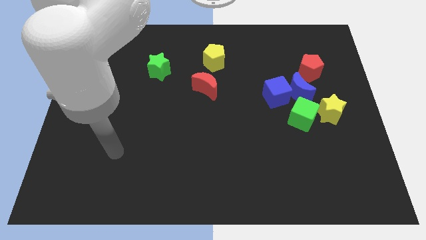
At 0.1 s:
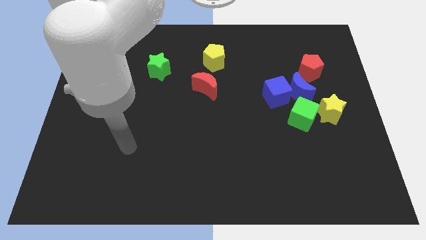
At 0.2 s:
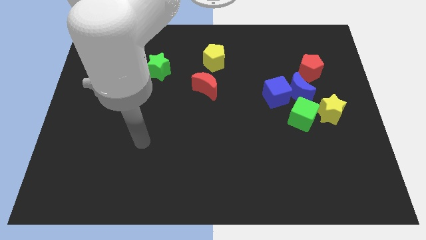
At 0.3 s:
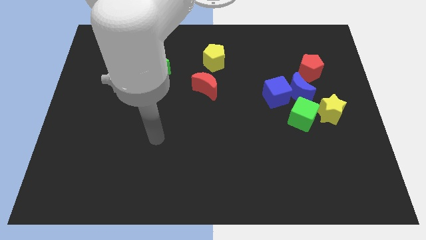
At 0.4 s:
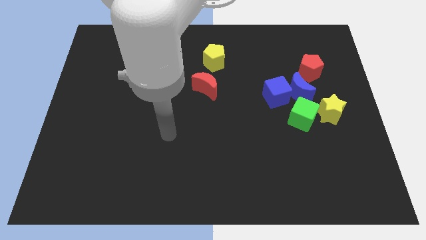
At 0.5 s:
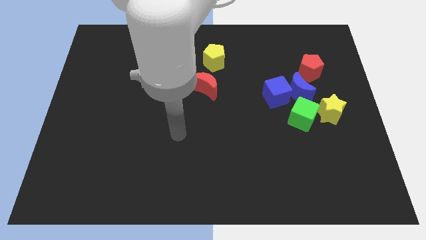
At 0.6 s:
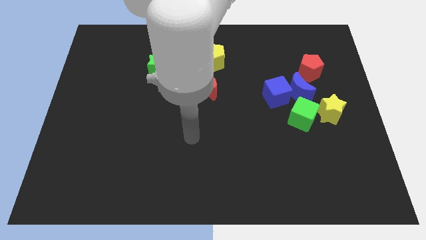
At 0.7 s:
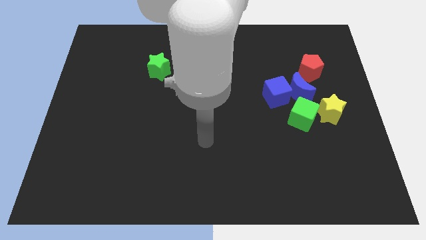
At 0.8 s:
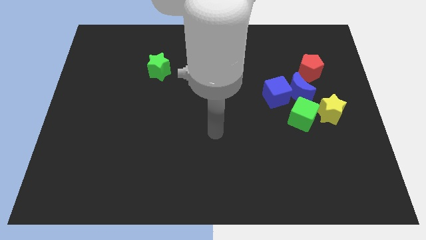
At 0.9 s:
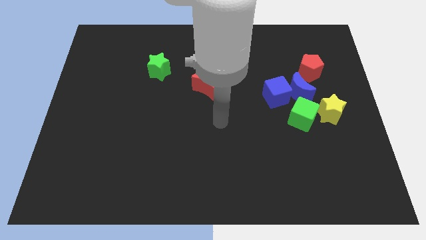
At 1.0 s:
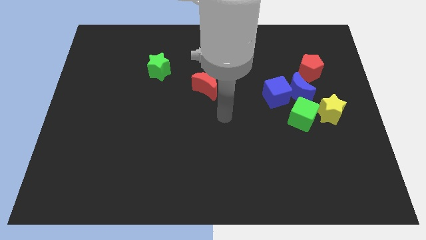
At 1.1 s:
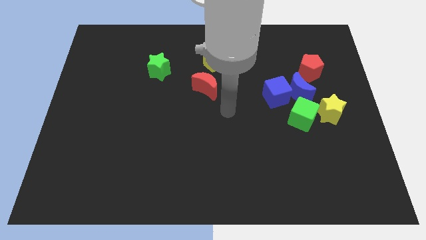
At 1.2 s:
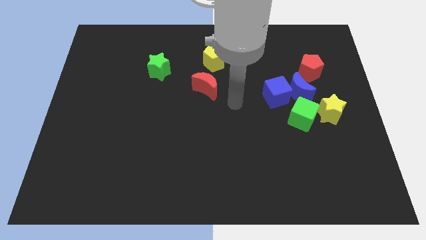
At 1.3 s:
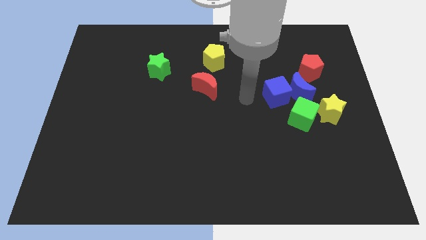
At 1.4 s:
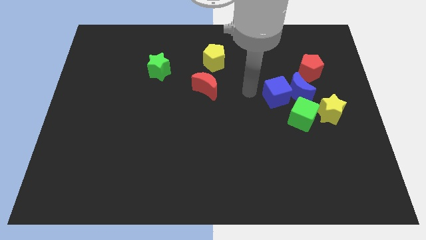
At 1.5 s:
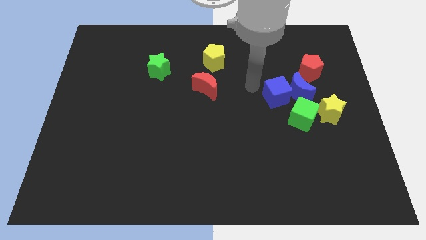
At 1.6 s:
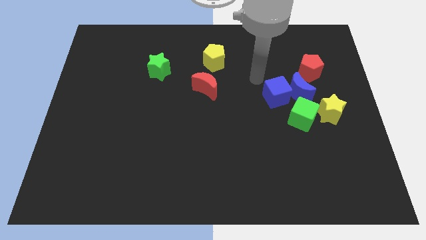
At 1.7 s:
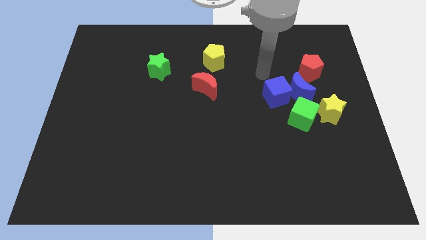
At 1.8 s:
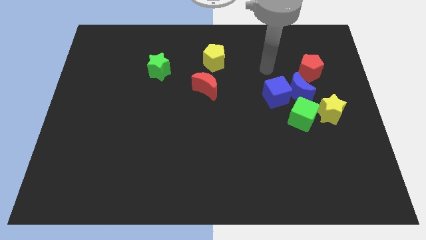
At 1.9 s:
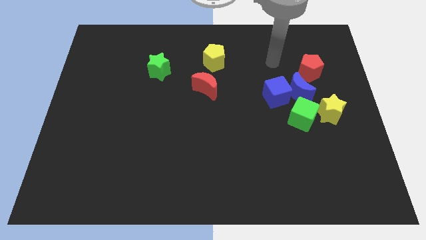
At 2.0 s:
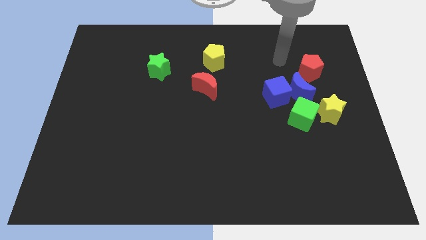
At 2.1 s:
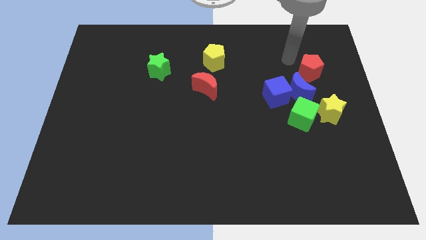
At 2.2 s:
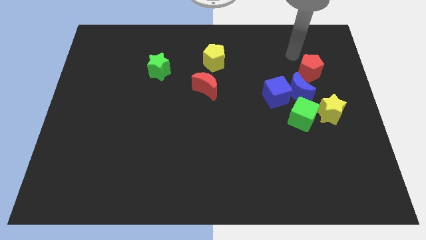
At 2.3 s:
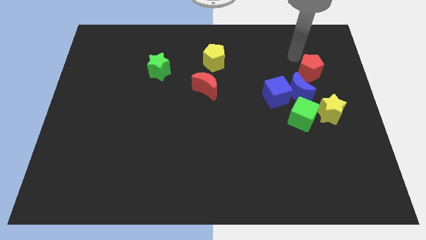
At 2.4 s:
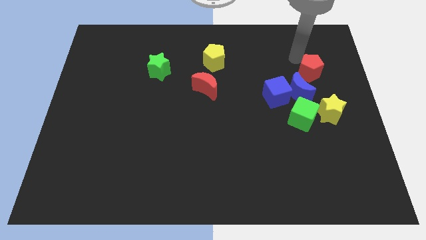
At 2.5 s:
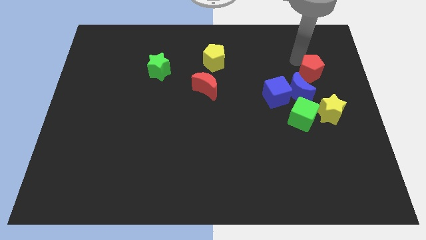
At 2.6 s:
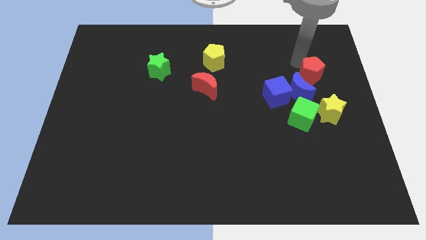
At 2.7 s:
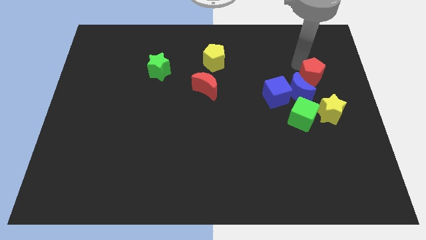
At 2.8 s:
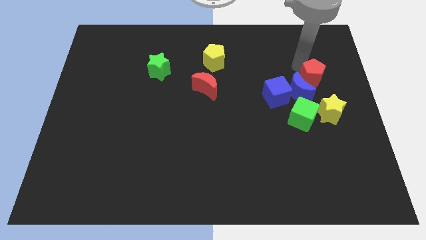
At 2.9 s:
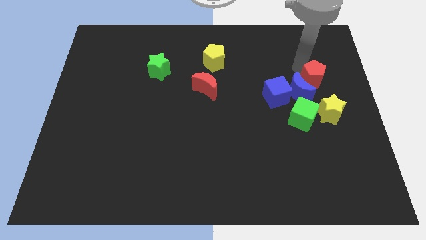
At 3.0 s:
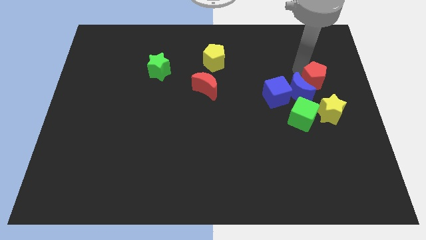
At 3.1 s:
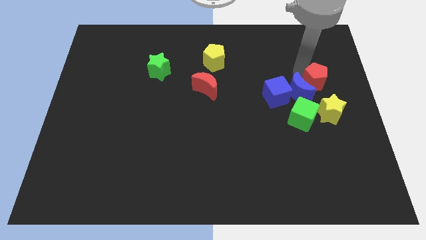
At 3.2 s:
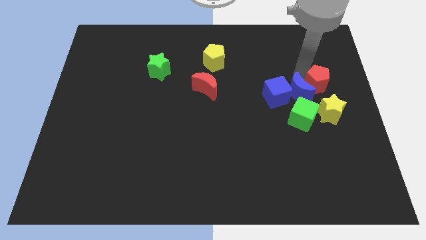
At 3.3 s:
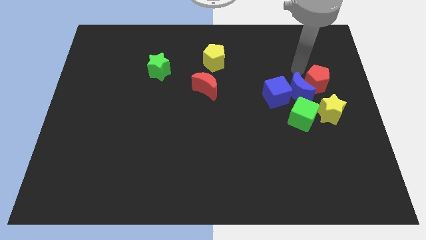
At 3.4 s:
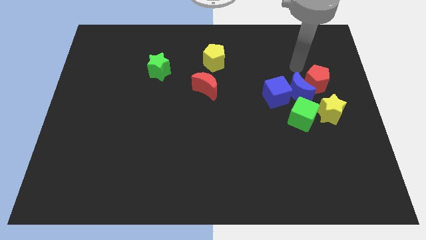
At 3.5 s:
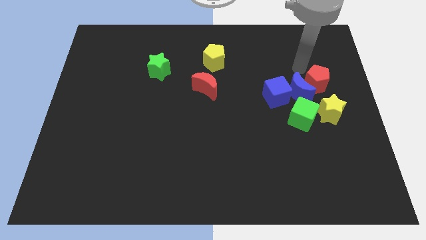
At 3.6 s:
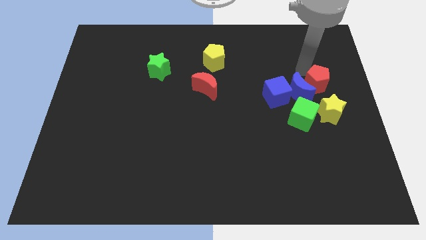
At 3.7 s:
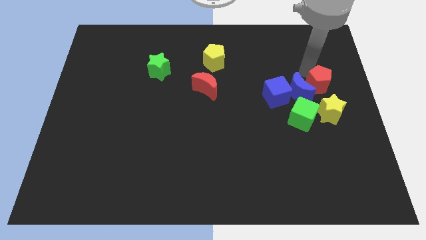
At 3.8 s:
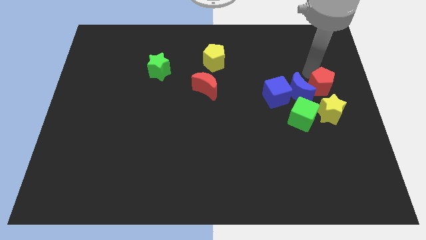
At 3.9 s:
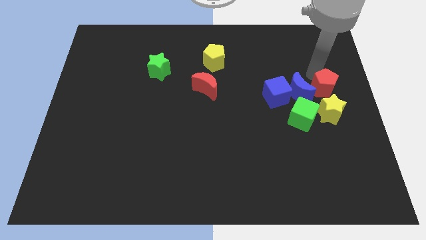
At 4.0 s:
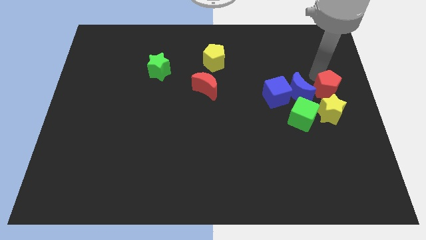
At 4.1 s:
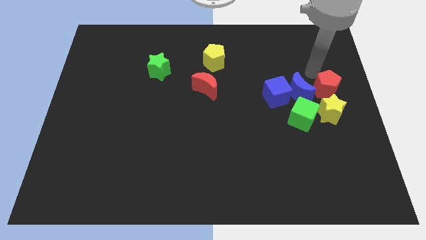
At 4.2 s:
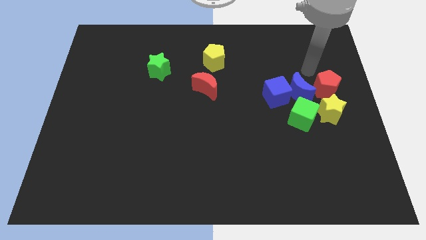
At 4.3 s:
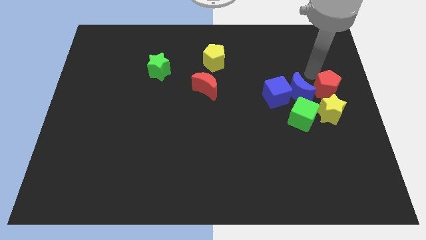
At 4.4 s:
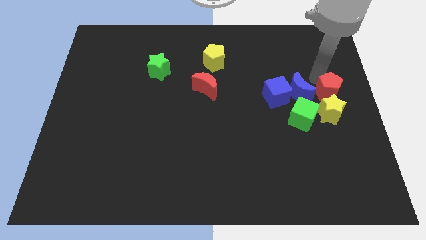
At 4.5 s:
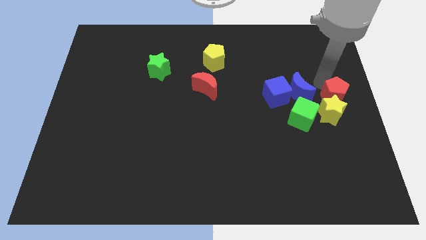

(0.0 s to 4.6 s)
slightly slide the red pentagon downwards

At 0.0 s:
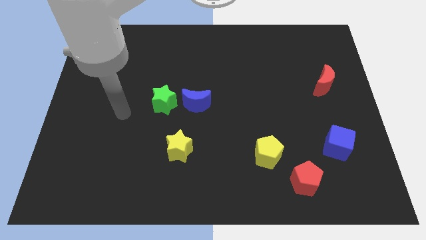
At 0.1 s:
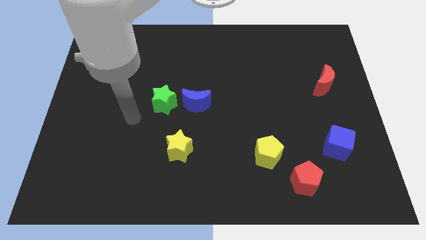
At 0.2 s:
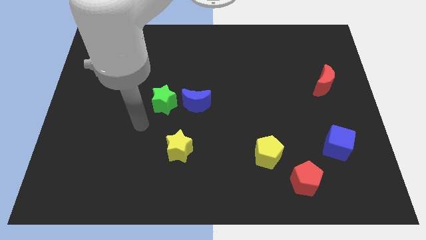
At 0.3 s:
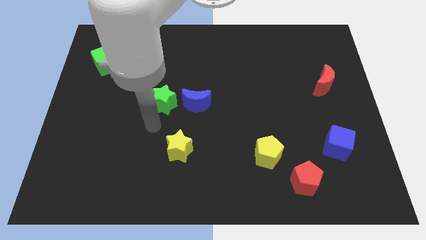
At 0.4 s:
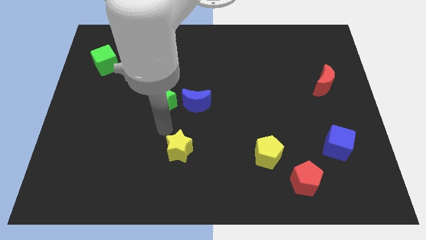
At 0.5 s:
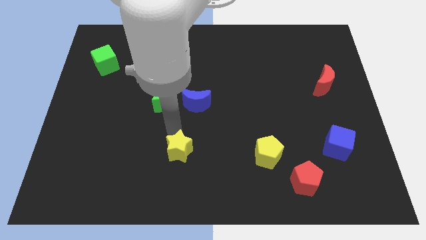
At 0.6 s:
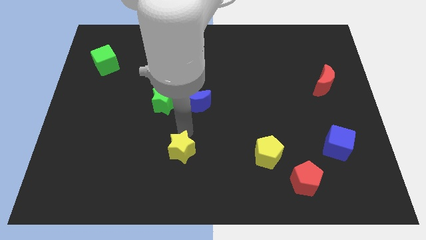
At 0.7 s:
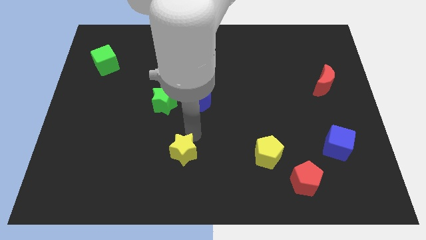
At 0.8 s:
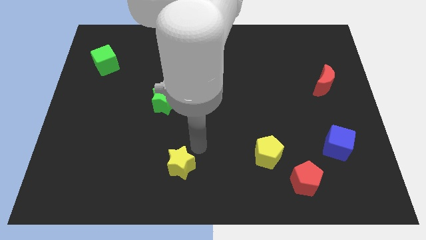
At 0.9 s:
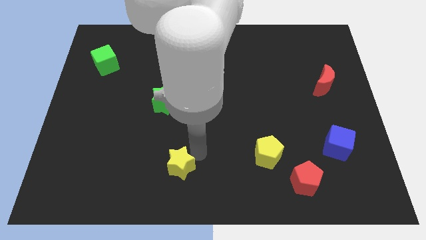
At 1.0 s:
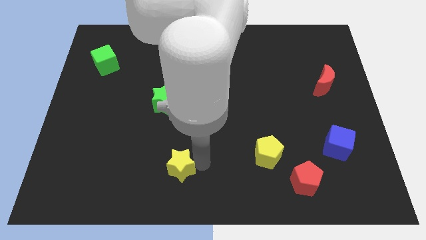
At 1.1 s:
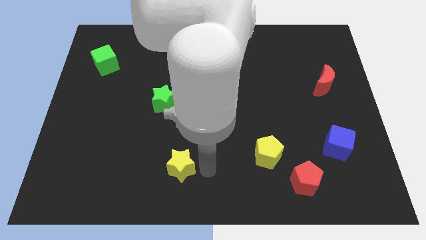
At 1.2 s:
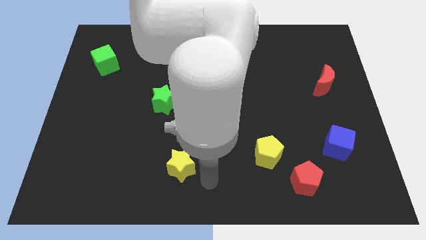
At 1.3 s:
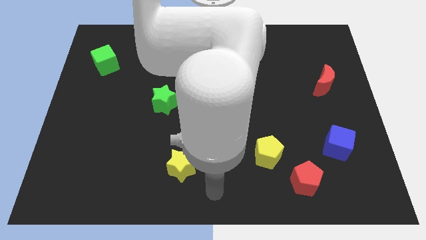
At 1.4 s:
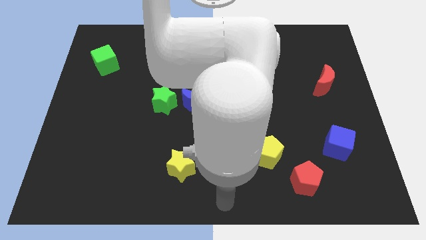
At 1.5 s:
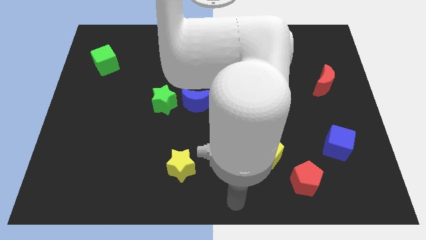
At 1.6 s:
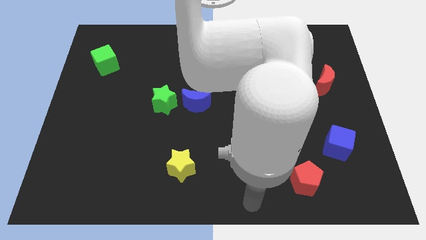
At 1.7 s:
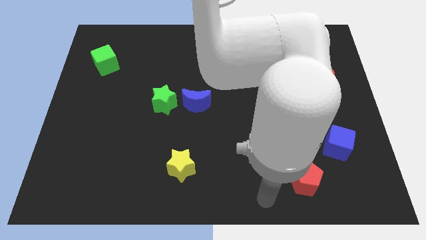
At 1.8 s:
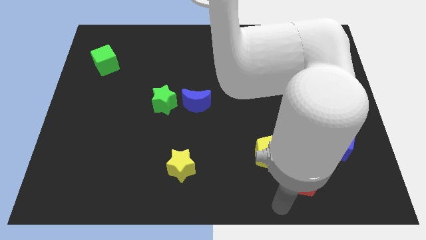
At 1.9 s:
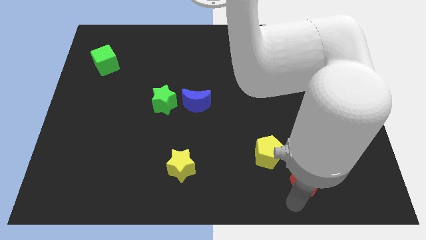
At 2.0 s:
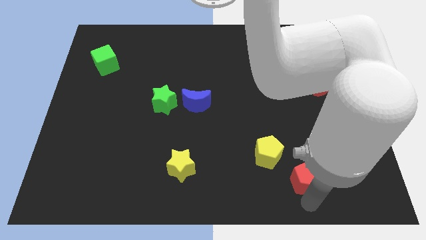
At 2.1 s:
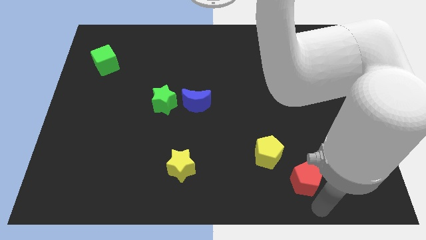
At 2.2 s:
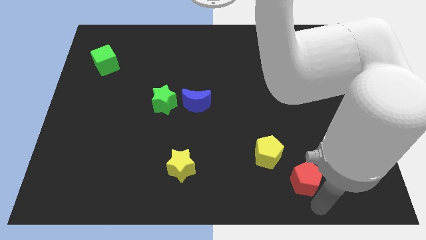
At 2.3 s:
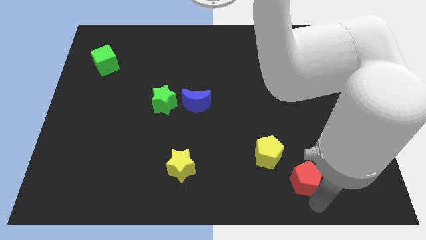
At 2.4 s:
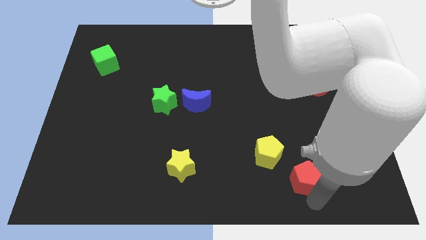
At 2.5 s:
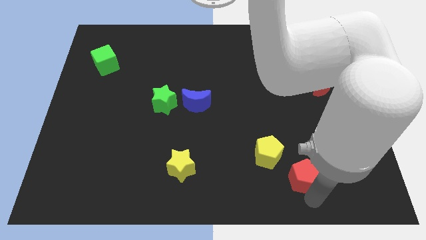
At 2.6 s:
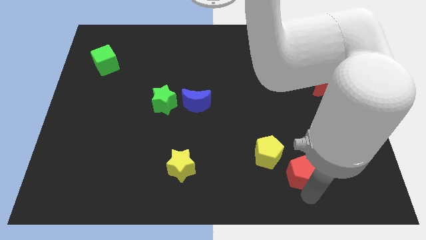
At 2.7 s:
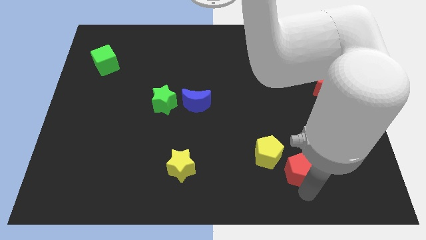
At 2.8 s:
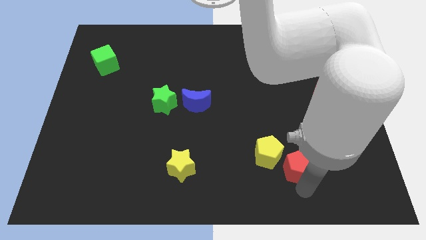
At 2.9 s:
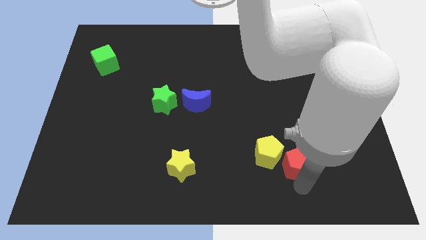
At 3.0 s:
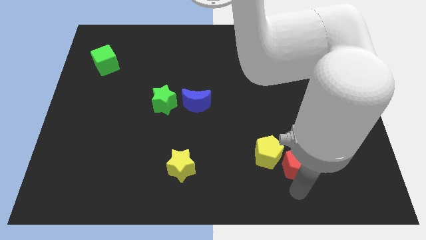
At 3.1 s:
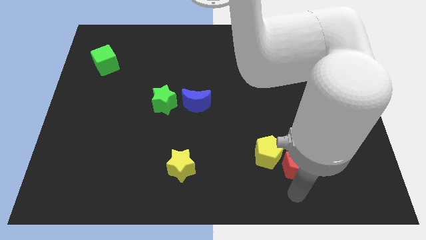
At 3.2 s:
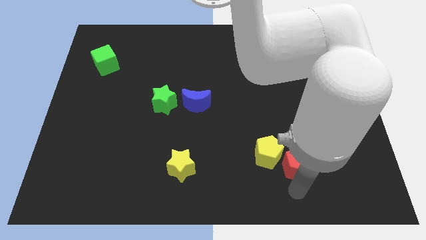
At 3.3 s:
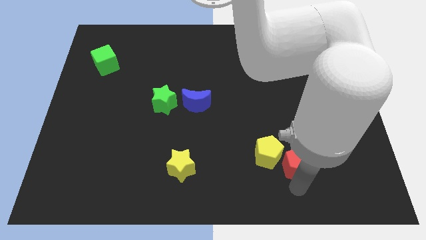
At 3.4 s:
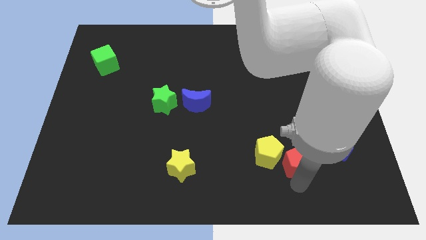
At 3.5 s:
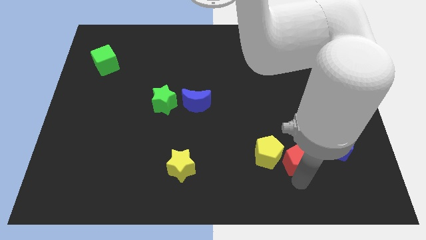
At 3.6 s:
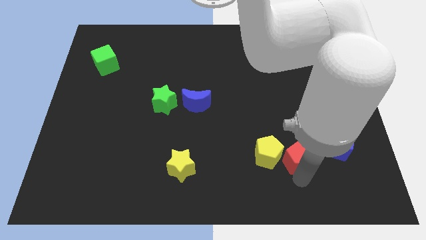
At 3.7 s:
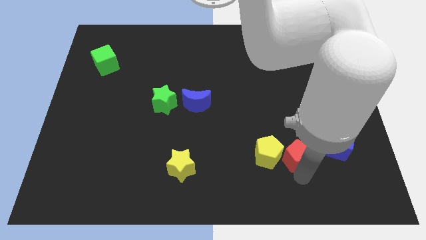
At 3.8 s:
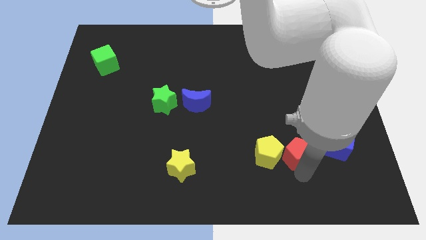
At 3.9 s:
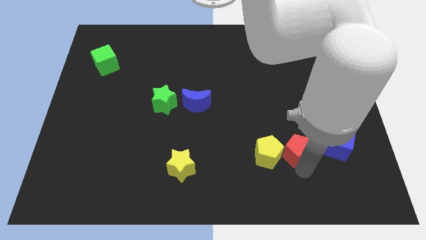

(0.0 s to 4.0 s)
slightly push the red pentagon up
